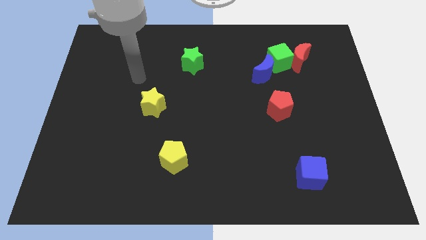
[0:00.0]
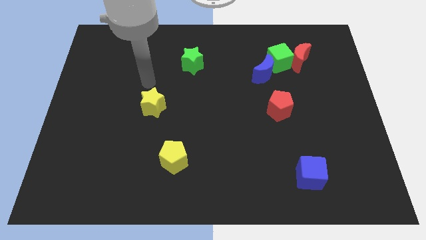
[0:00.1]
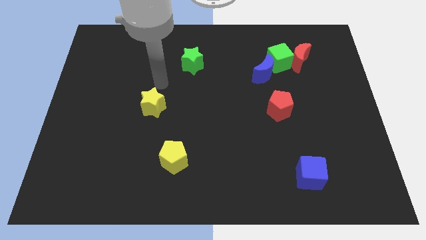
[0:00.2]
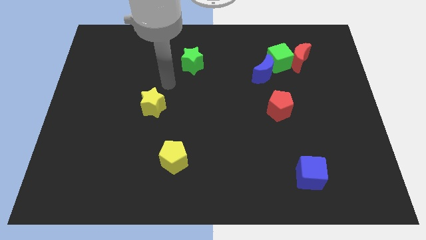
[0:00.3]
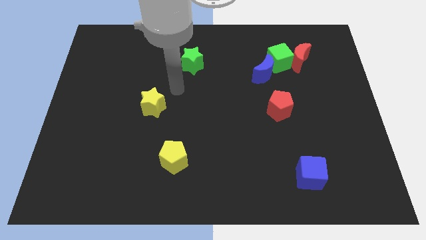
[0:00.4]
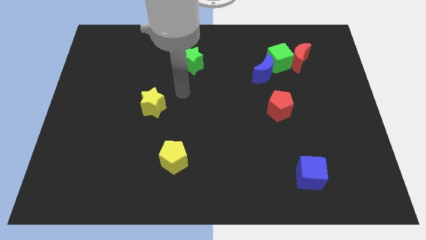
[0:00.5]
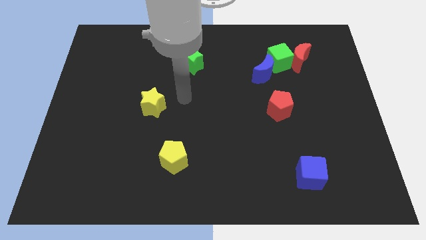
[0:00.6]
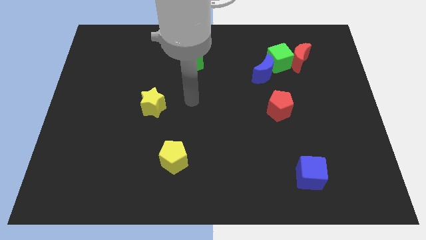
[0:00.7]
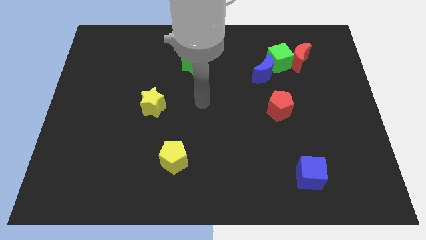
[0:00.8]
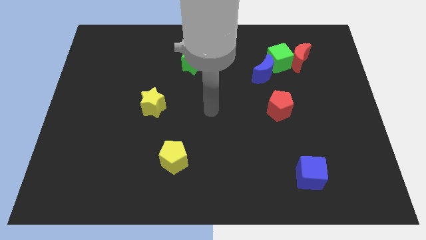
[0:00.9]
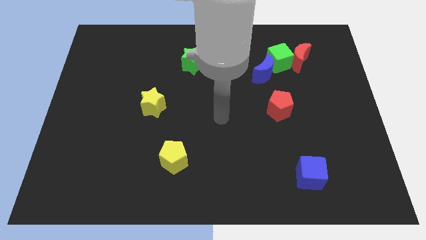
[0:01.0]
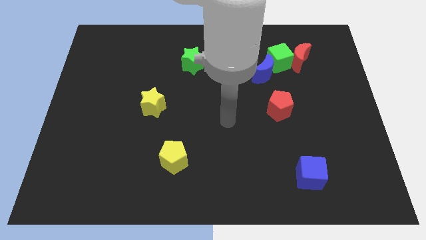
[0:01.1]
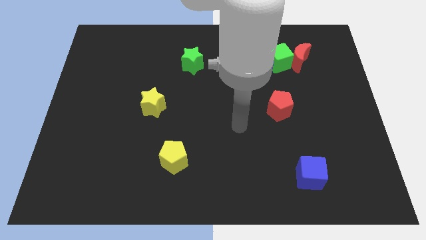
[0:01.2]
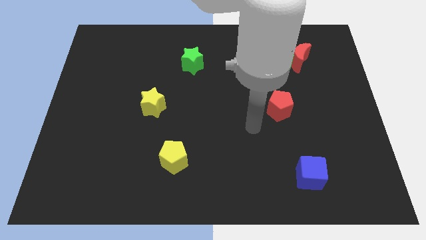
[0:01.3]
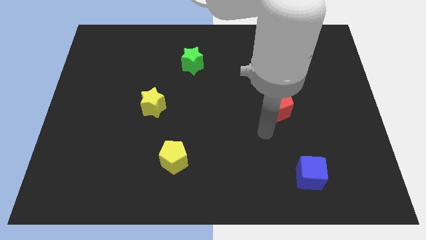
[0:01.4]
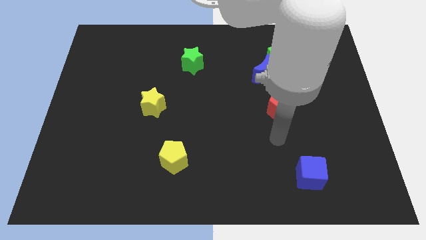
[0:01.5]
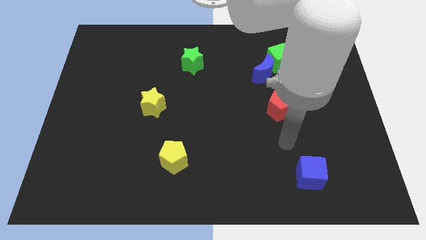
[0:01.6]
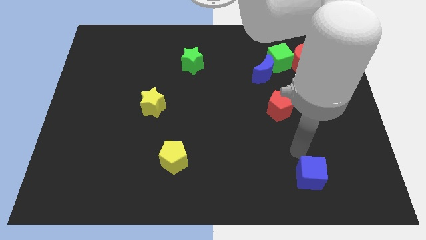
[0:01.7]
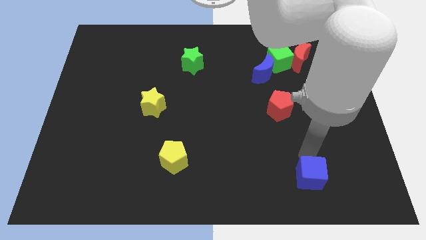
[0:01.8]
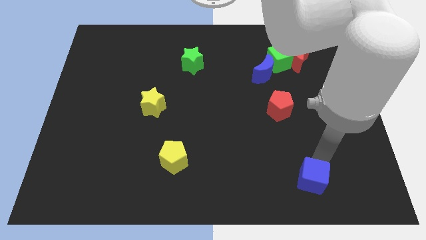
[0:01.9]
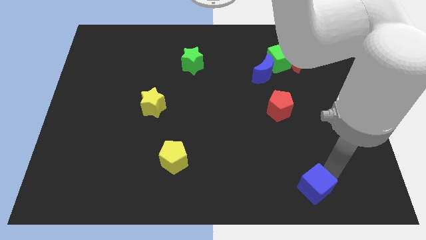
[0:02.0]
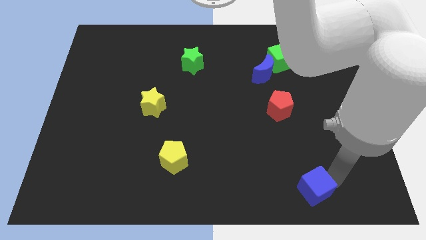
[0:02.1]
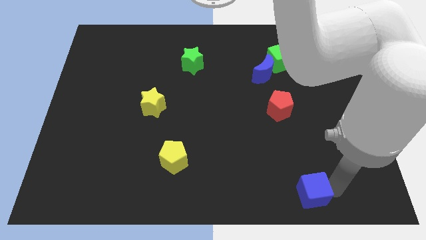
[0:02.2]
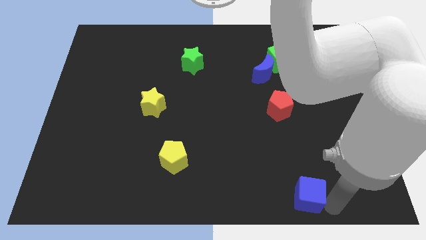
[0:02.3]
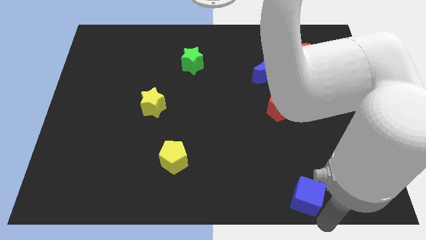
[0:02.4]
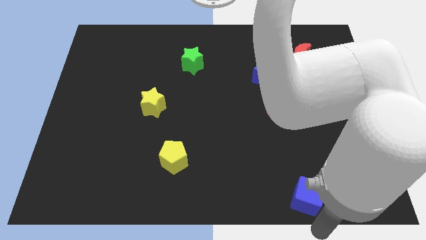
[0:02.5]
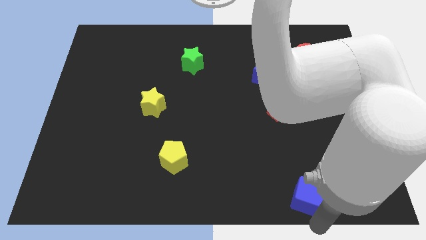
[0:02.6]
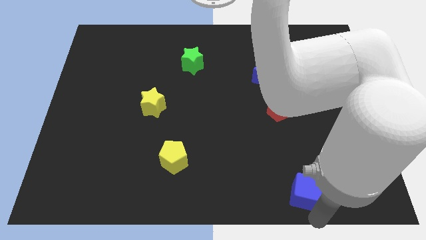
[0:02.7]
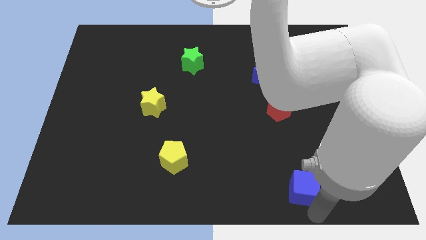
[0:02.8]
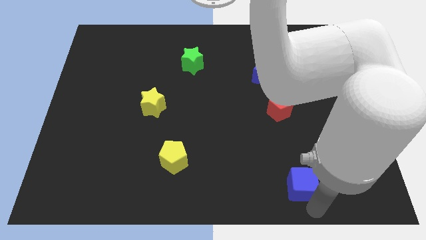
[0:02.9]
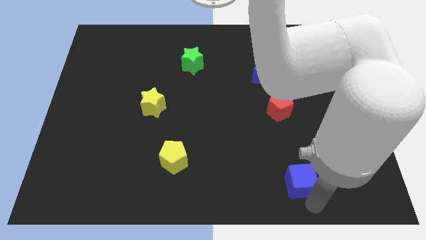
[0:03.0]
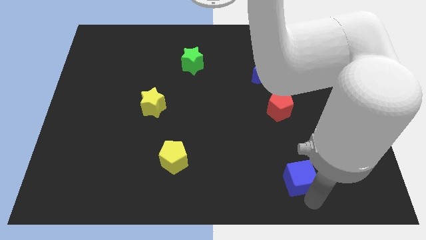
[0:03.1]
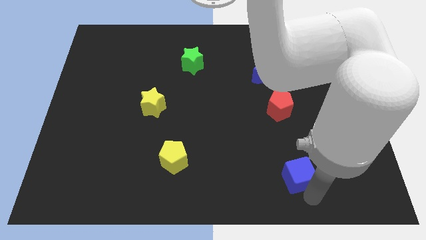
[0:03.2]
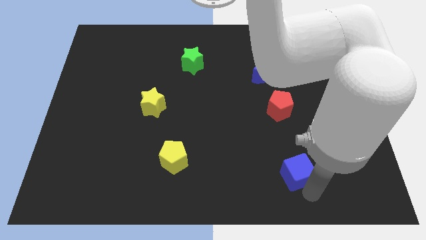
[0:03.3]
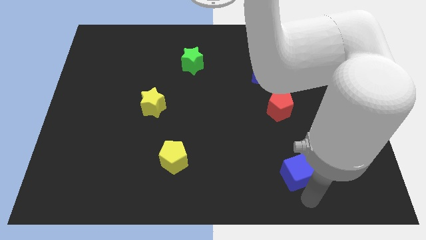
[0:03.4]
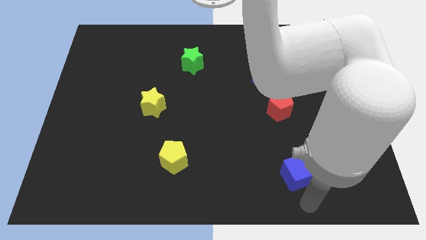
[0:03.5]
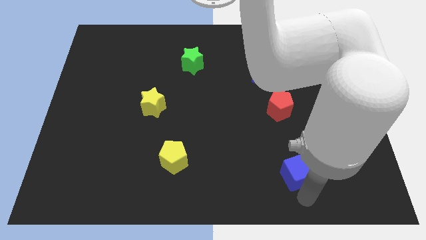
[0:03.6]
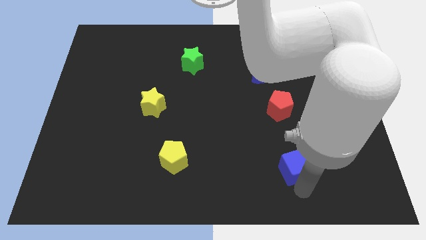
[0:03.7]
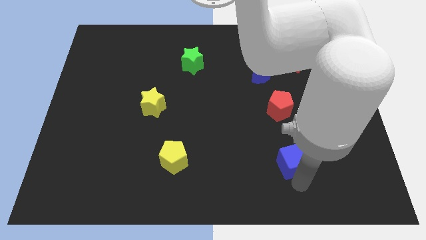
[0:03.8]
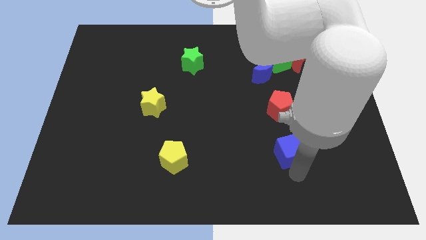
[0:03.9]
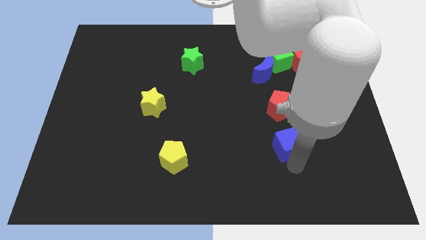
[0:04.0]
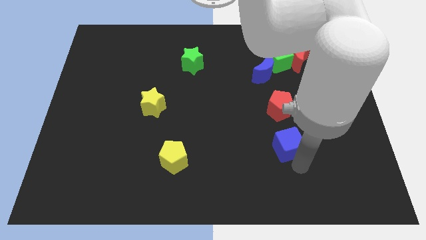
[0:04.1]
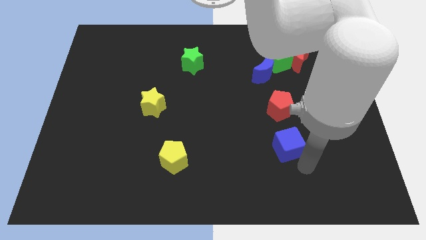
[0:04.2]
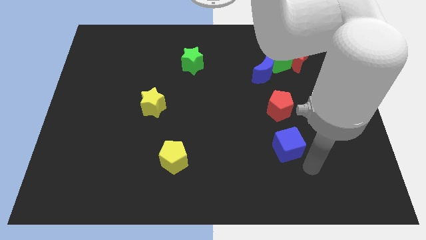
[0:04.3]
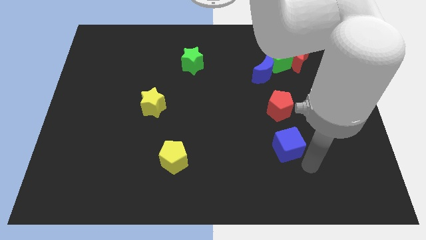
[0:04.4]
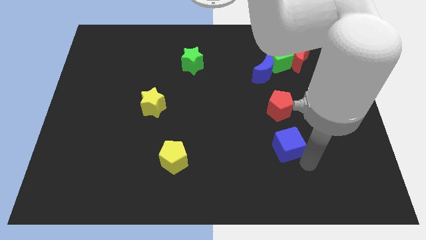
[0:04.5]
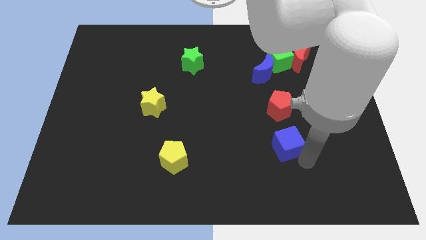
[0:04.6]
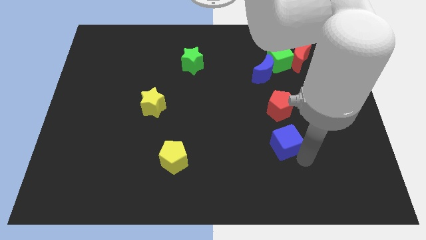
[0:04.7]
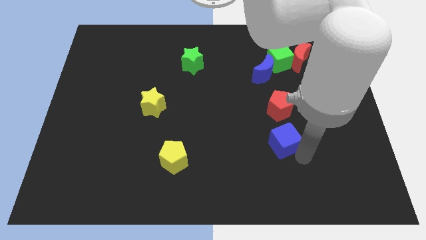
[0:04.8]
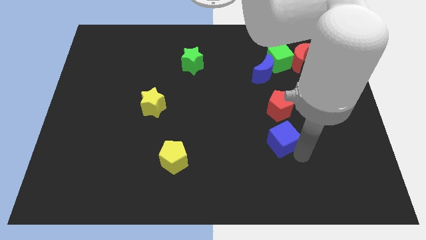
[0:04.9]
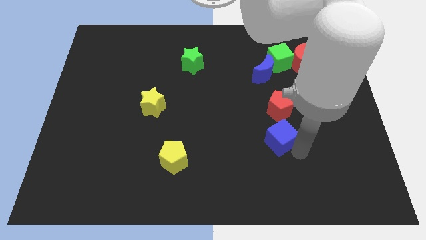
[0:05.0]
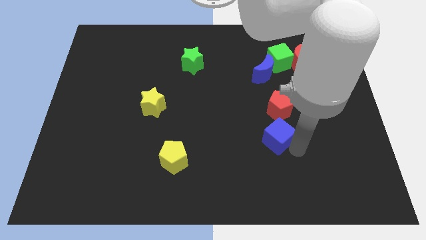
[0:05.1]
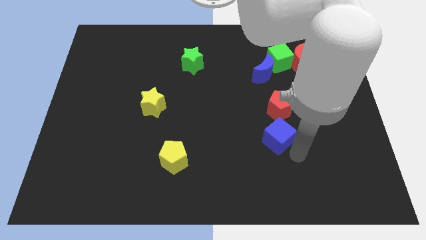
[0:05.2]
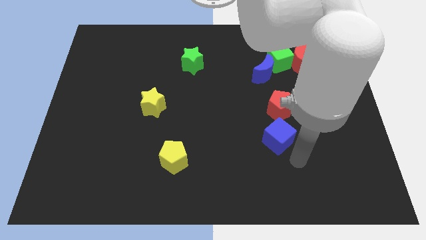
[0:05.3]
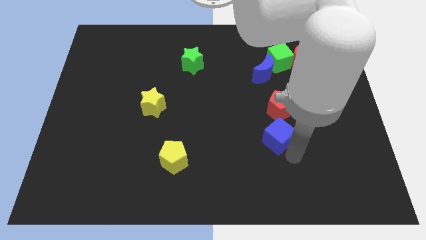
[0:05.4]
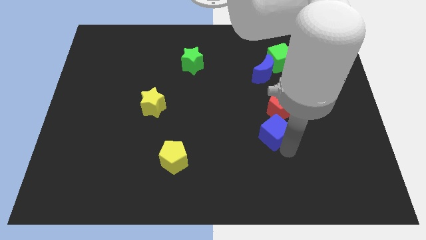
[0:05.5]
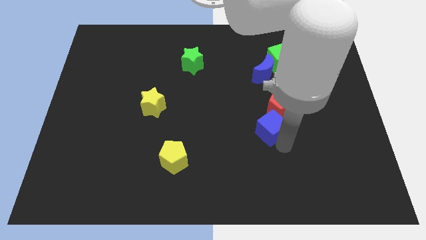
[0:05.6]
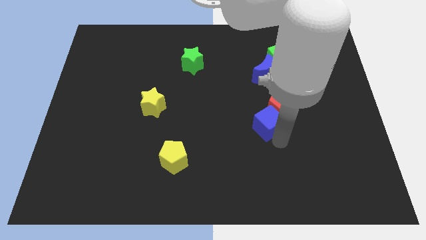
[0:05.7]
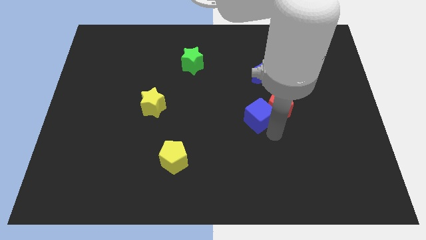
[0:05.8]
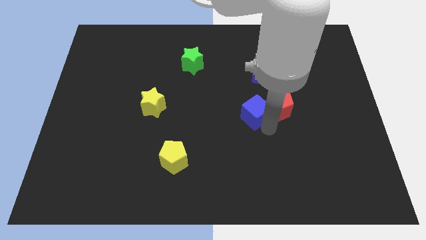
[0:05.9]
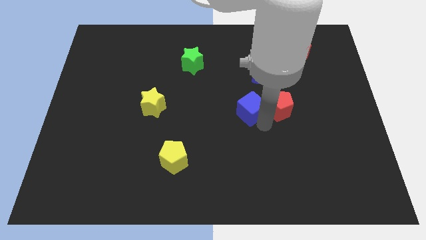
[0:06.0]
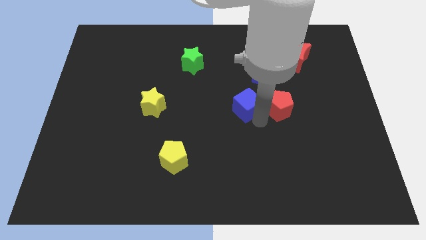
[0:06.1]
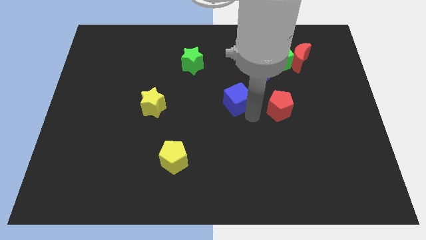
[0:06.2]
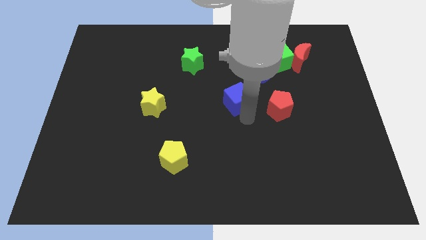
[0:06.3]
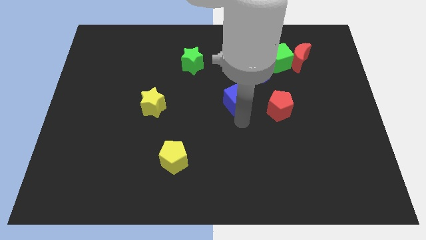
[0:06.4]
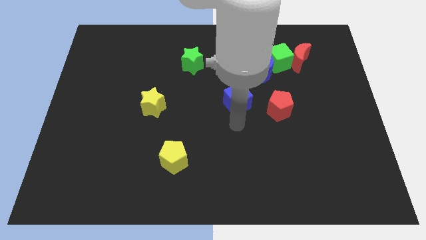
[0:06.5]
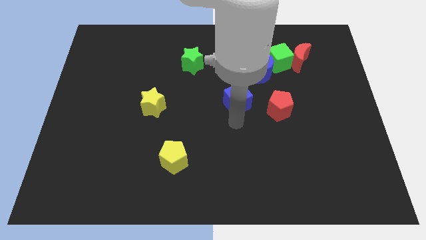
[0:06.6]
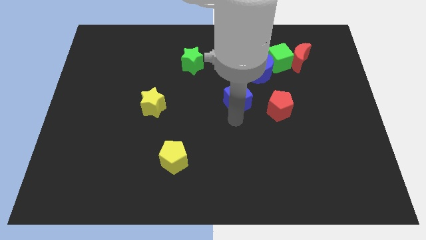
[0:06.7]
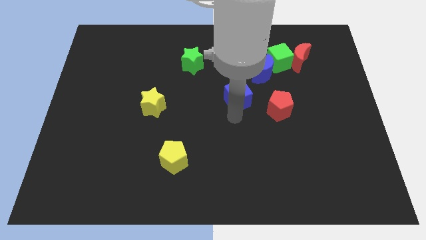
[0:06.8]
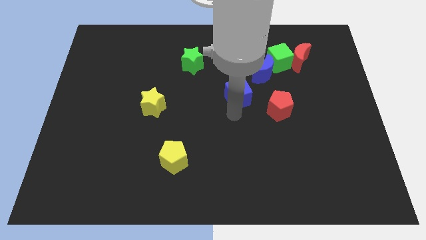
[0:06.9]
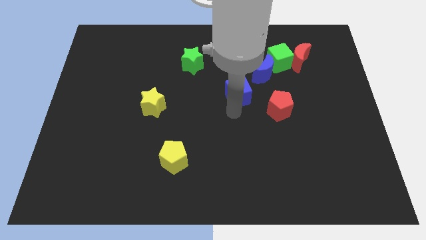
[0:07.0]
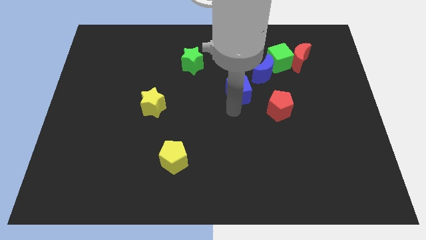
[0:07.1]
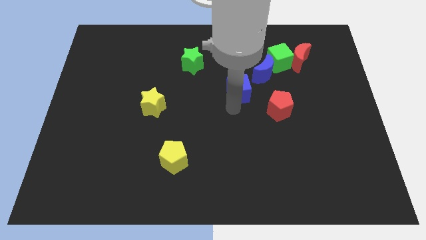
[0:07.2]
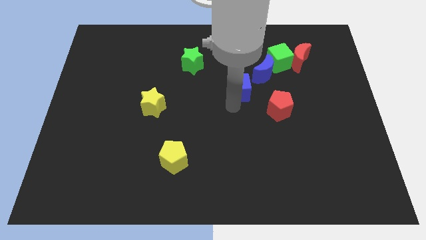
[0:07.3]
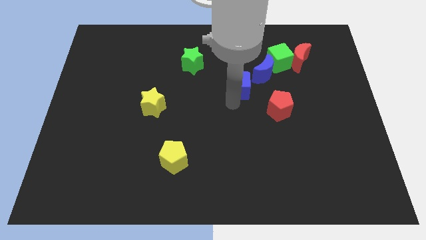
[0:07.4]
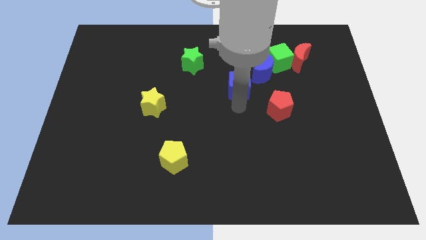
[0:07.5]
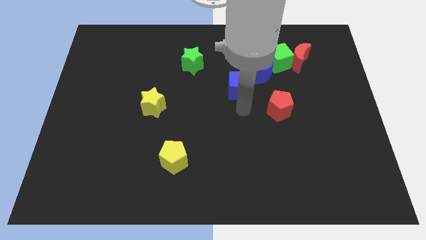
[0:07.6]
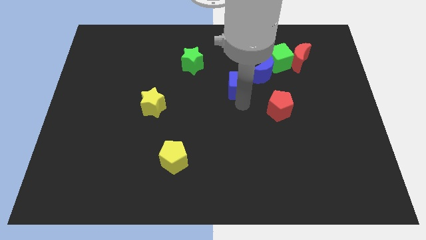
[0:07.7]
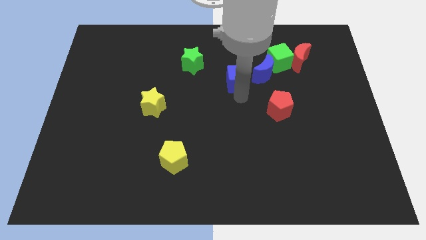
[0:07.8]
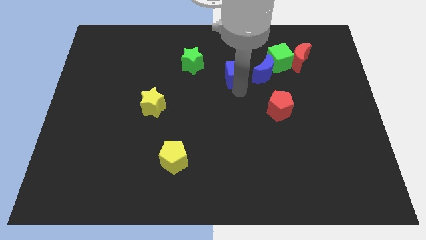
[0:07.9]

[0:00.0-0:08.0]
move the blue cube to the right side of the green star
